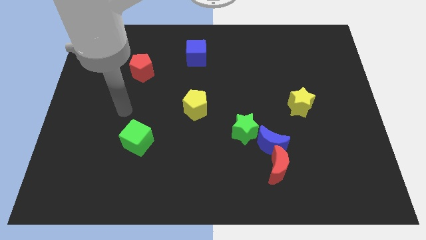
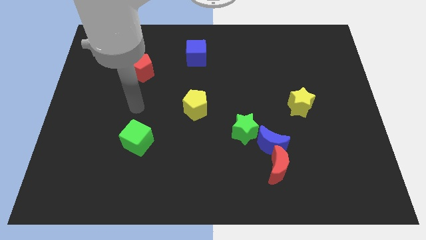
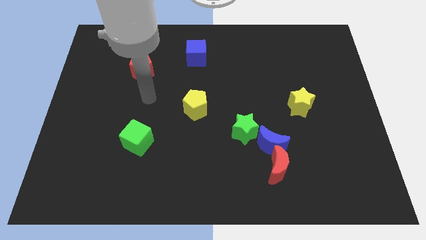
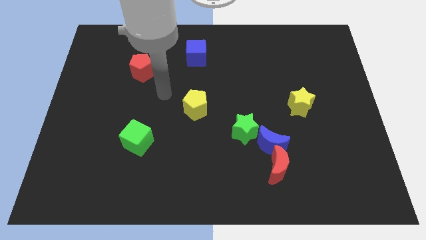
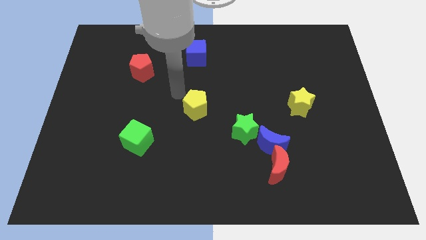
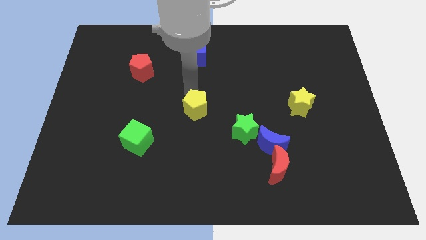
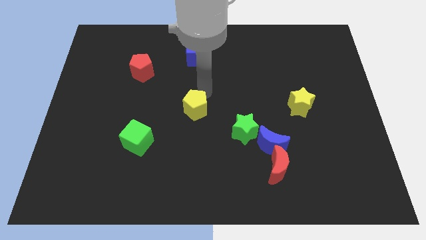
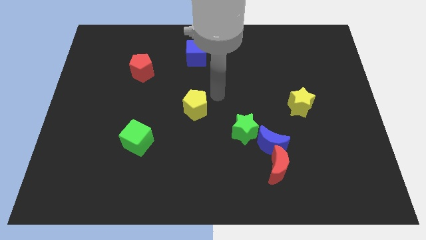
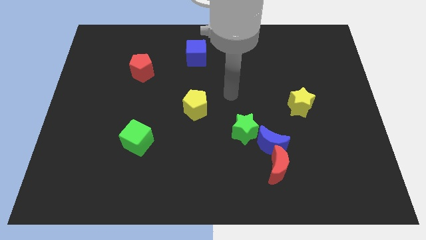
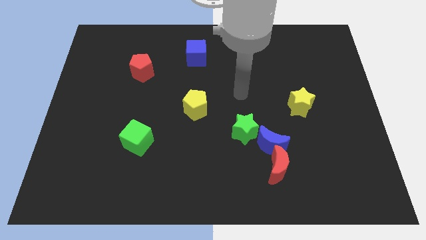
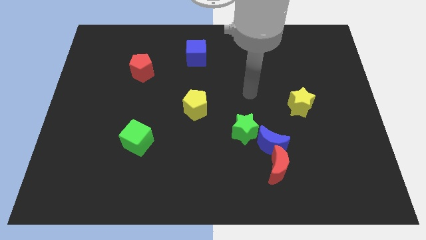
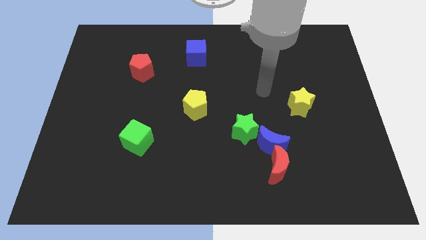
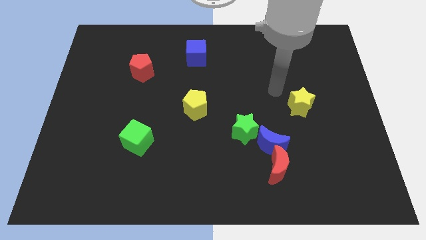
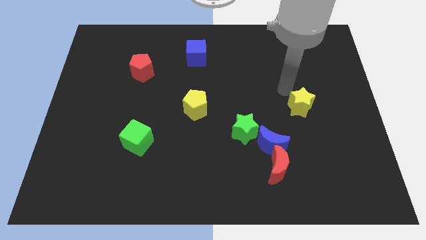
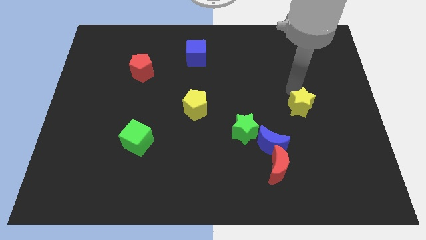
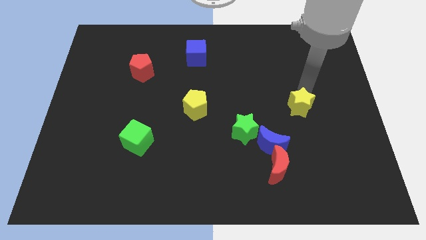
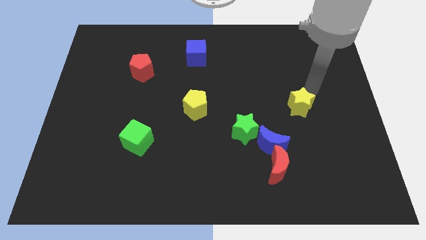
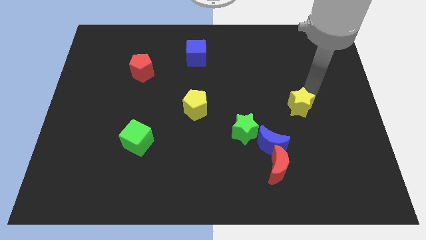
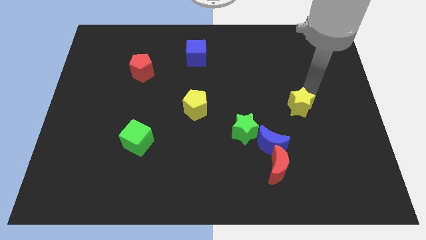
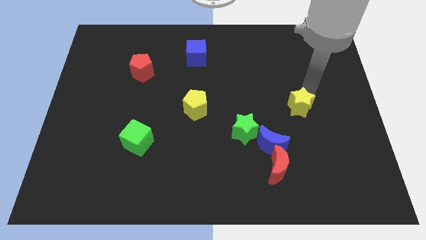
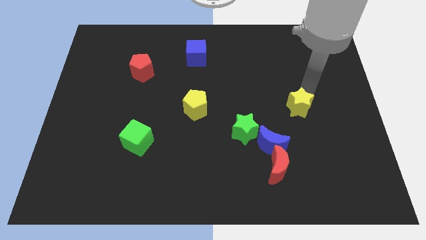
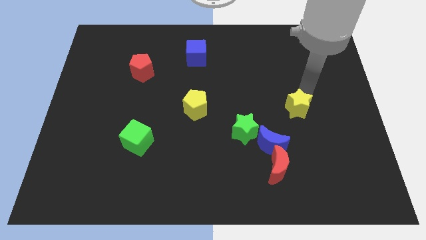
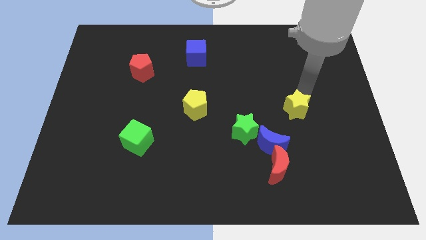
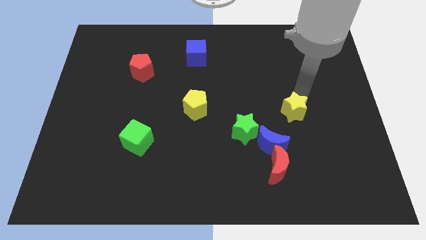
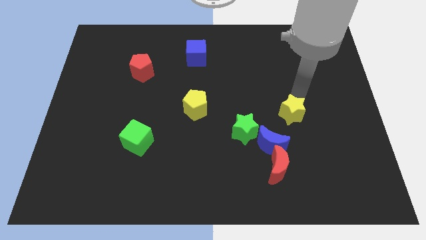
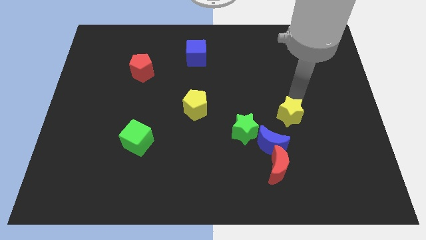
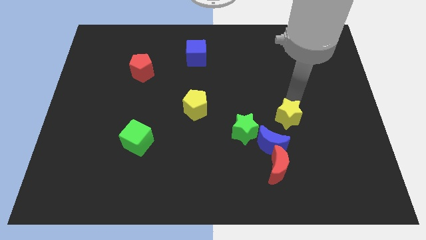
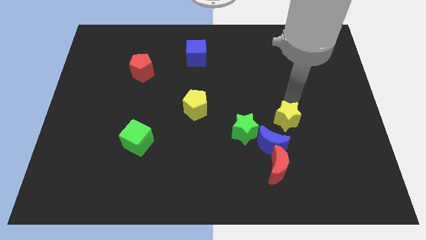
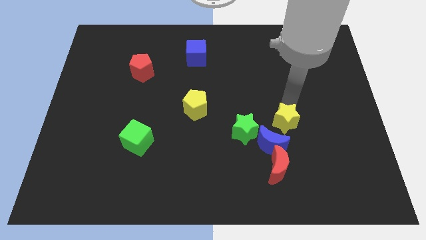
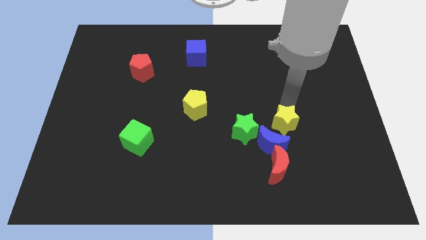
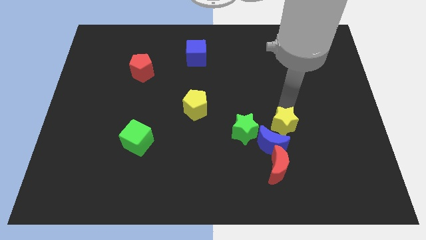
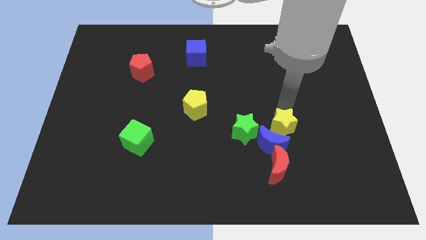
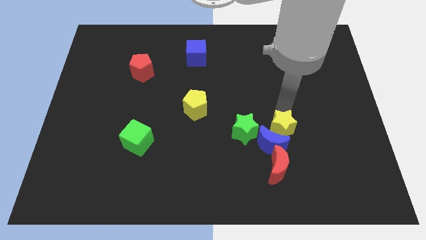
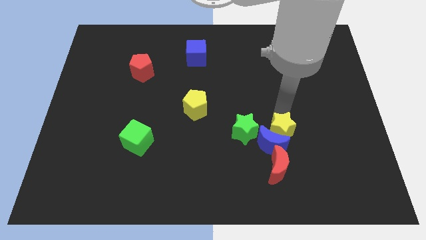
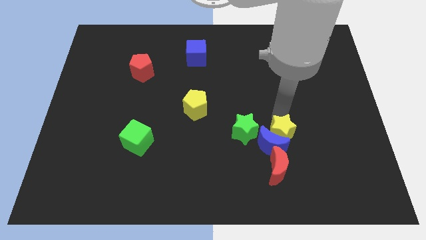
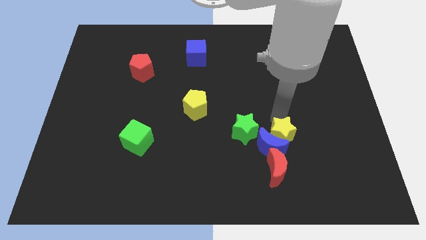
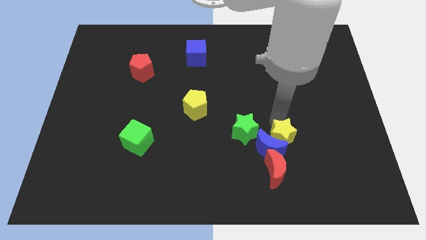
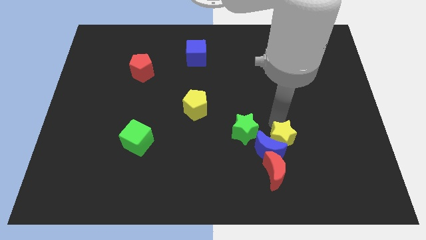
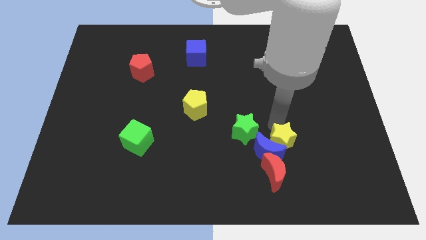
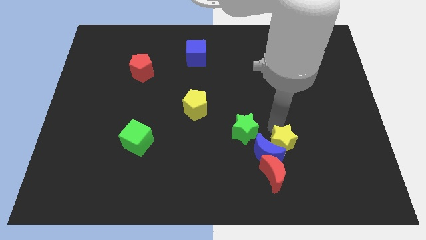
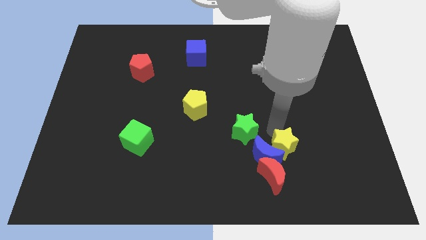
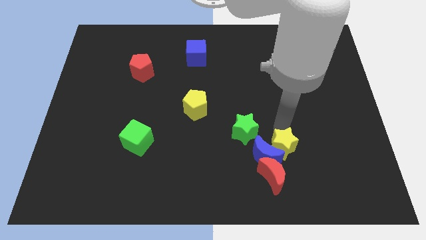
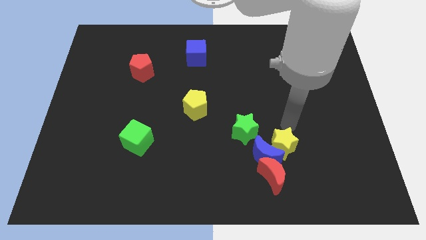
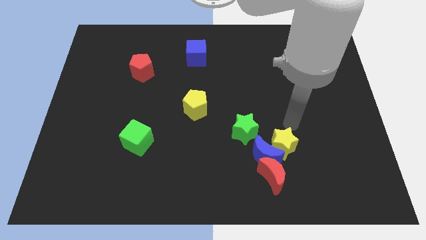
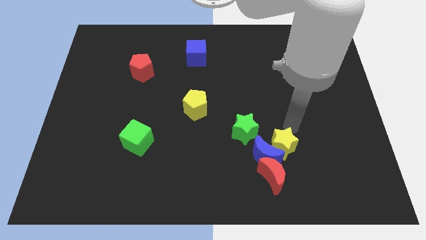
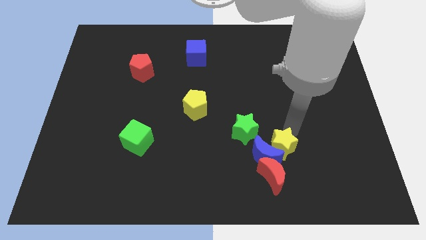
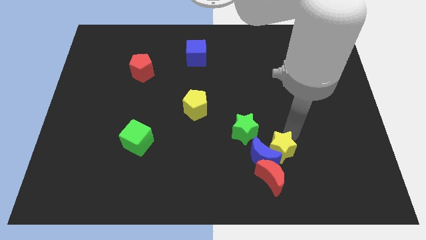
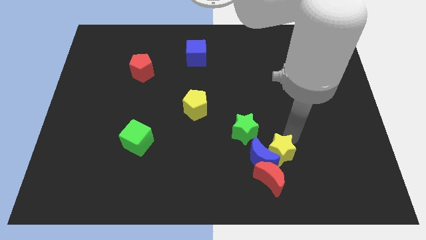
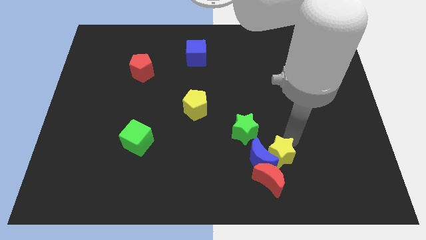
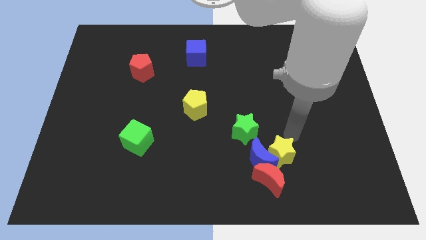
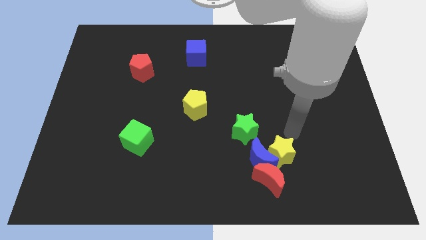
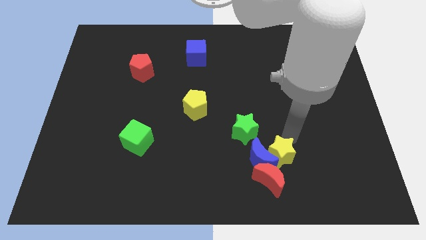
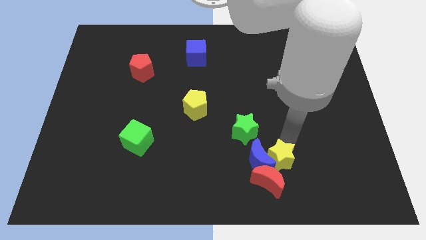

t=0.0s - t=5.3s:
slide the yellow star to the red moon

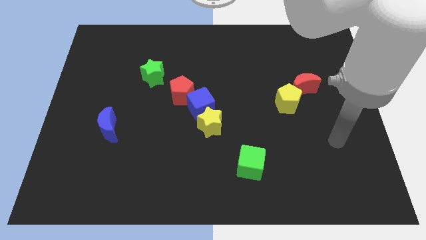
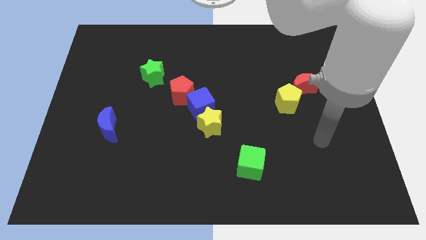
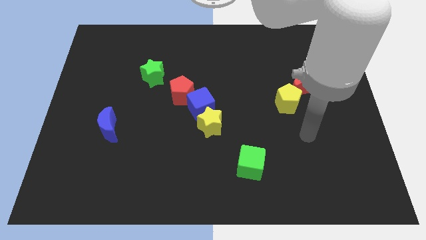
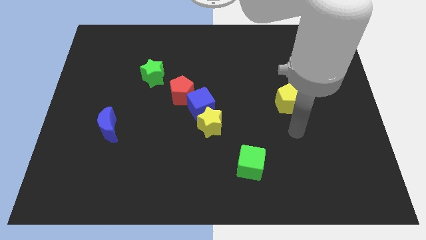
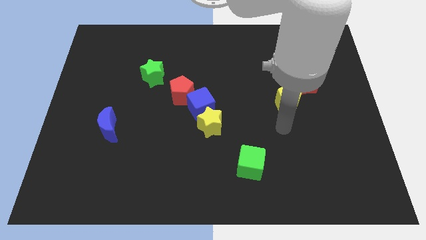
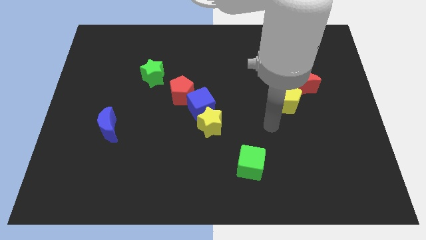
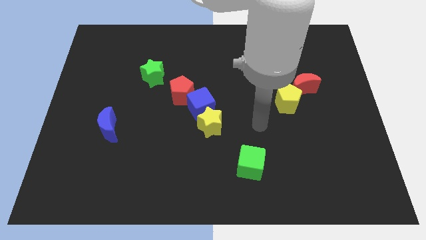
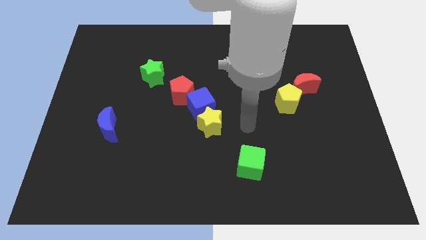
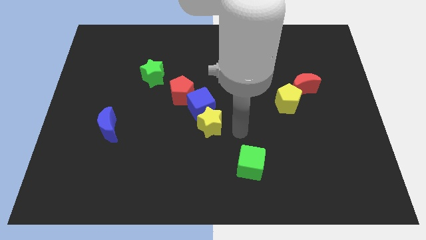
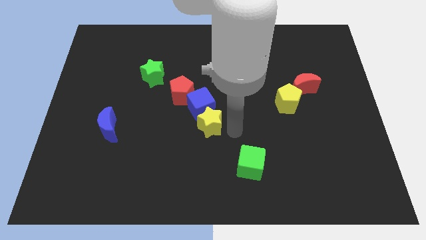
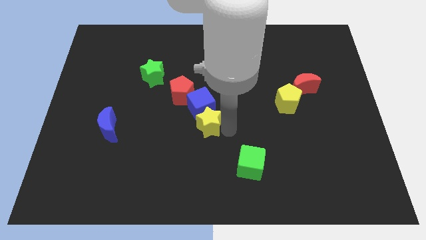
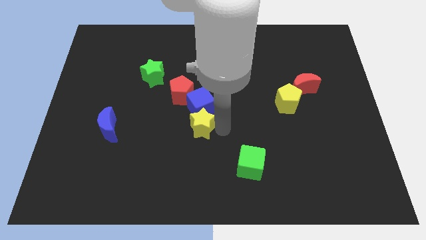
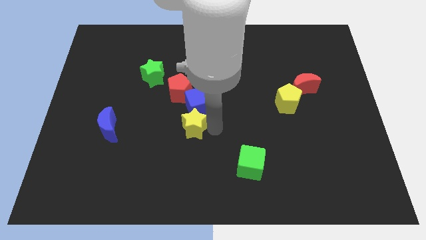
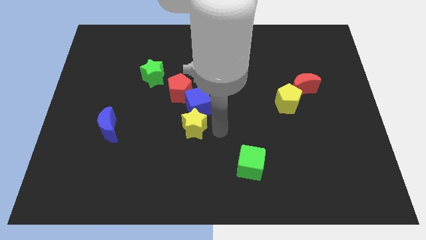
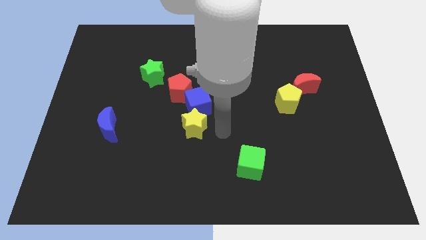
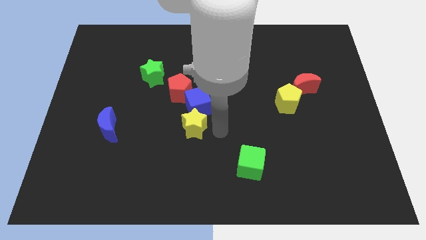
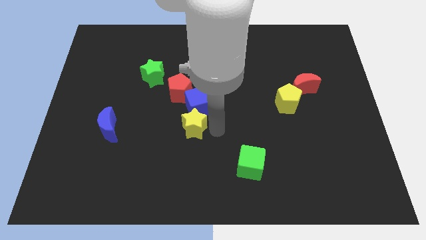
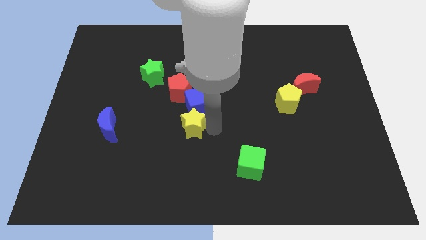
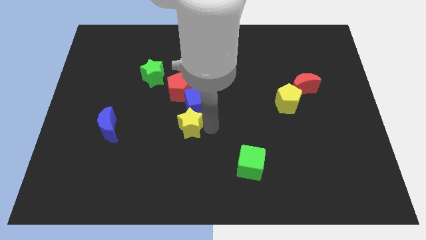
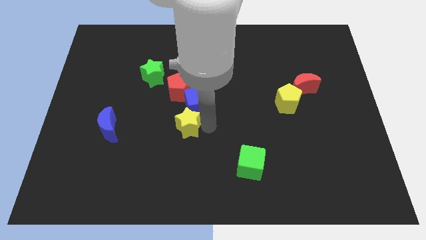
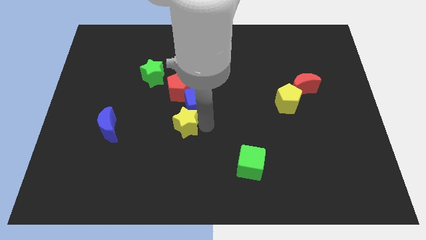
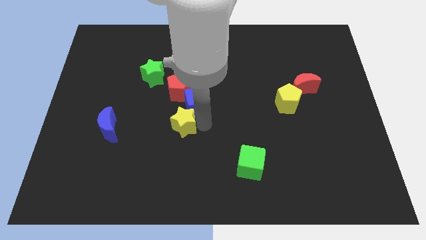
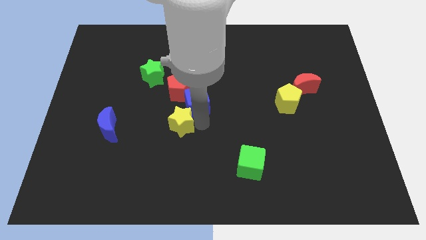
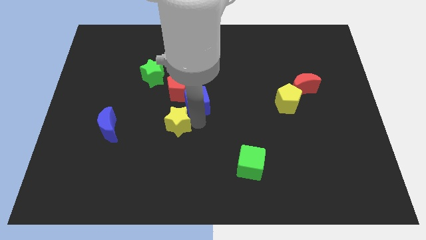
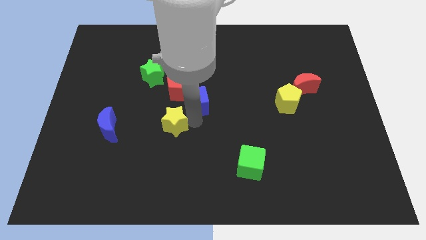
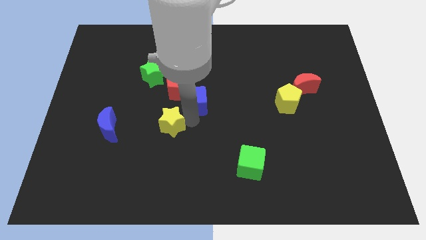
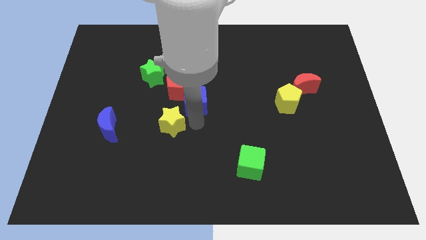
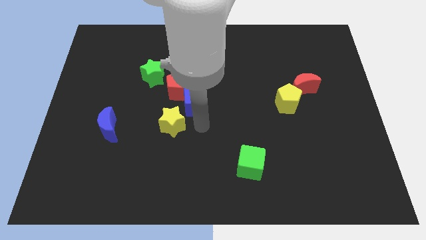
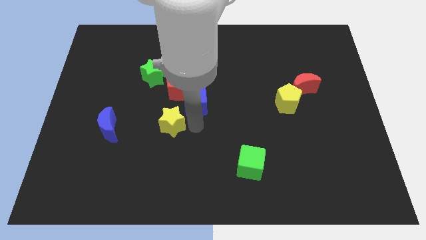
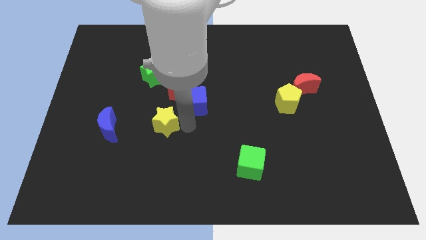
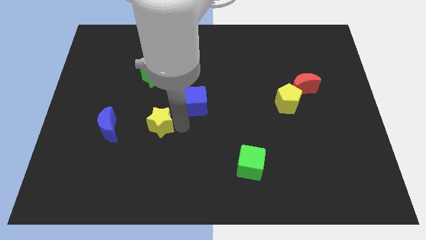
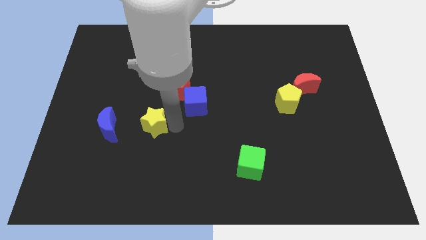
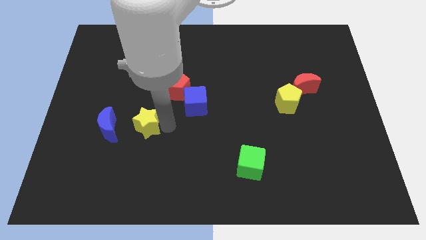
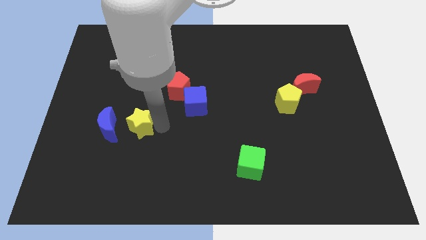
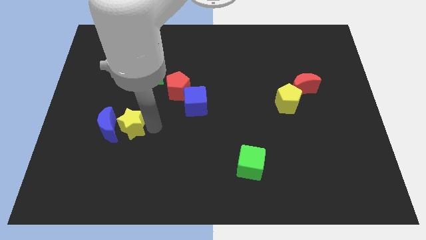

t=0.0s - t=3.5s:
slide the yellow star to the blue moon
